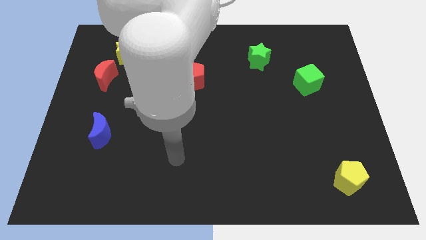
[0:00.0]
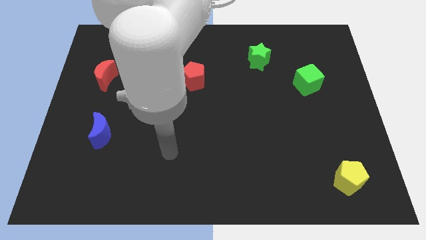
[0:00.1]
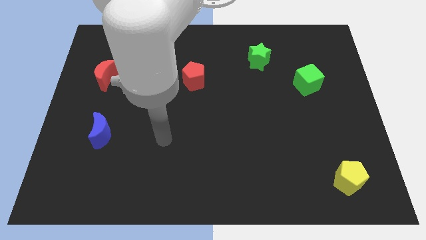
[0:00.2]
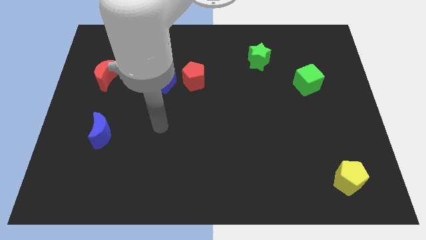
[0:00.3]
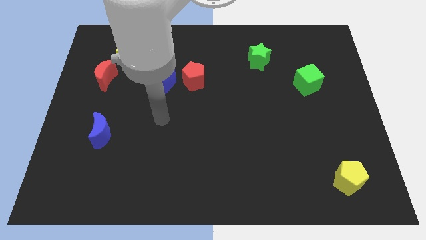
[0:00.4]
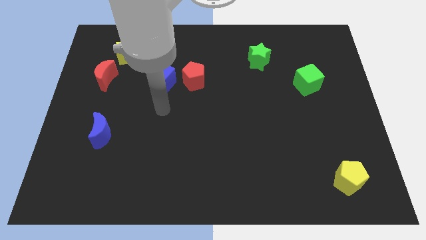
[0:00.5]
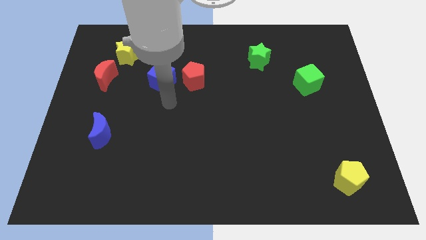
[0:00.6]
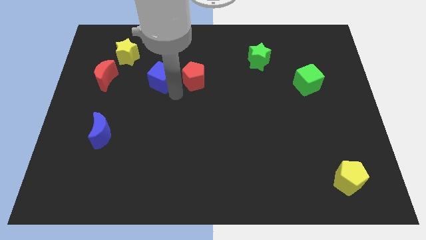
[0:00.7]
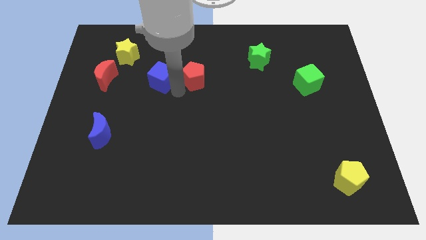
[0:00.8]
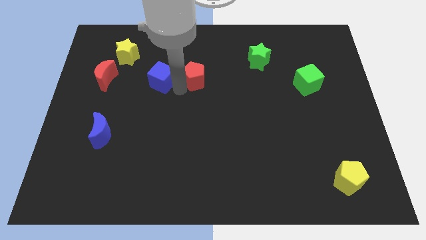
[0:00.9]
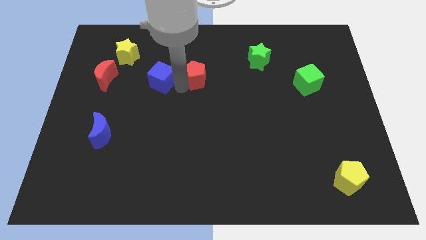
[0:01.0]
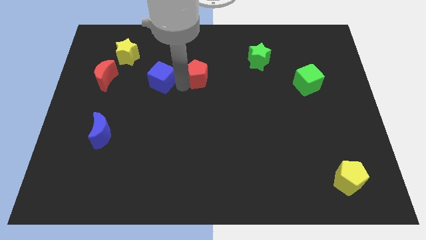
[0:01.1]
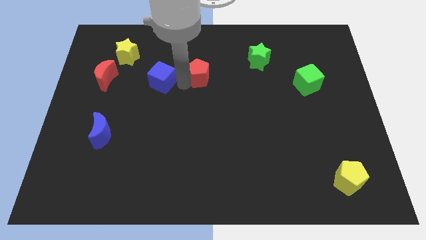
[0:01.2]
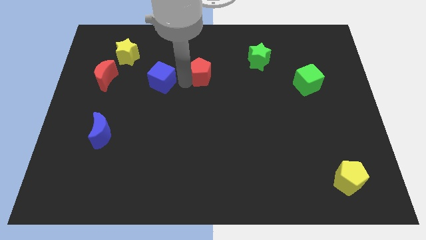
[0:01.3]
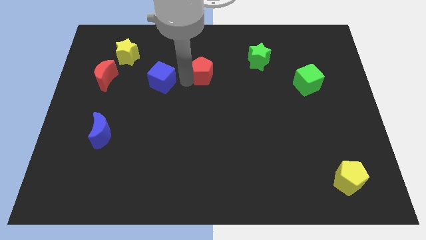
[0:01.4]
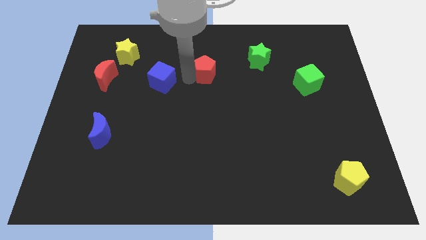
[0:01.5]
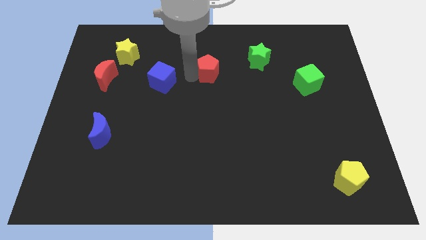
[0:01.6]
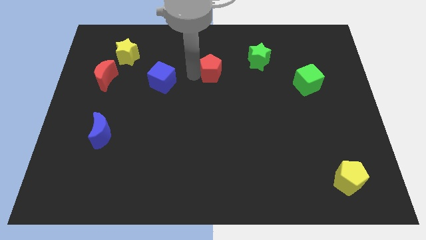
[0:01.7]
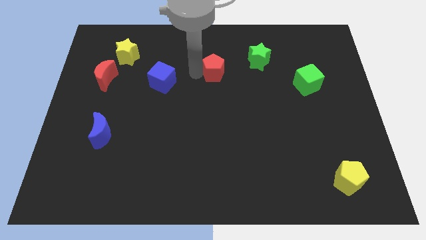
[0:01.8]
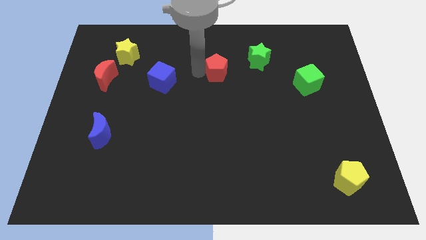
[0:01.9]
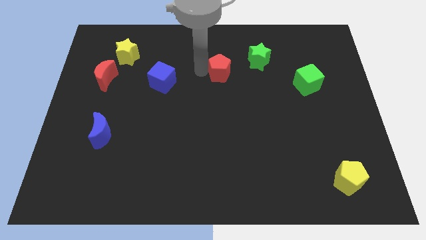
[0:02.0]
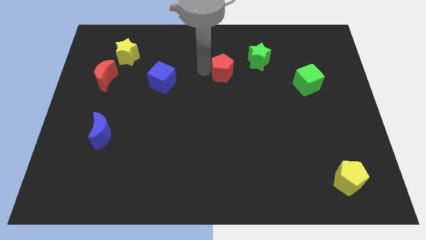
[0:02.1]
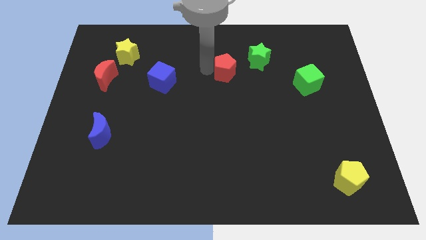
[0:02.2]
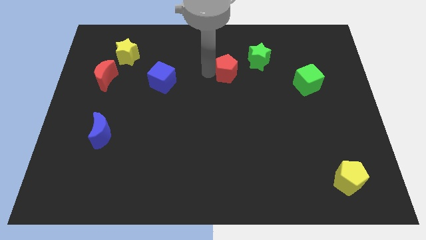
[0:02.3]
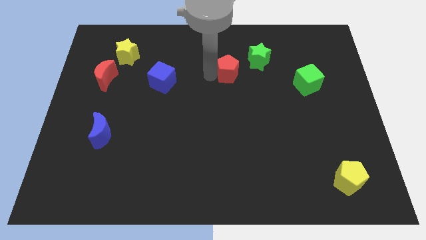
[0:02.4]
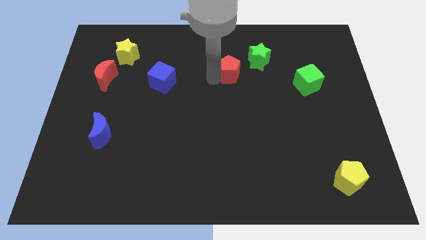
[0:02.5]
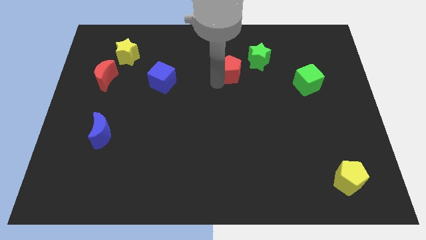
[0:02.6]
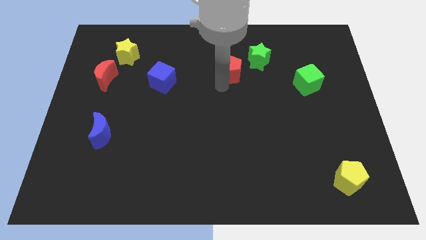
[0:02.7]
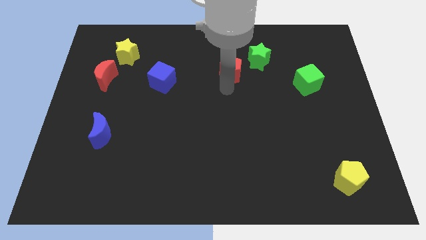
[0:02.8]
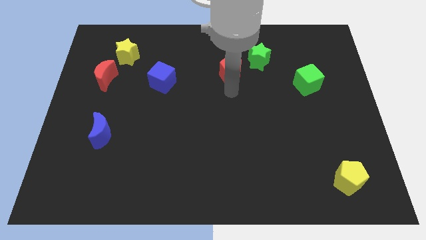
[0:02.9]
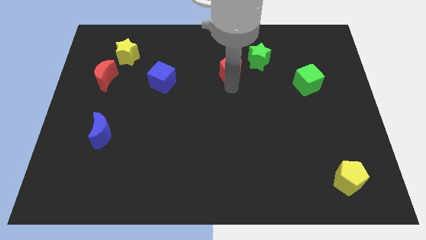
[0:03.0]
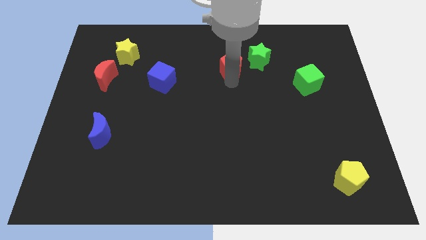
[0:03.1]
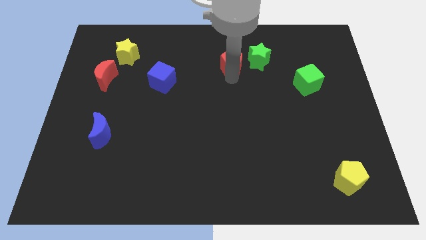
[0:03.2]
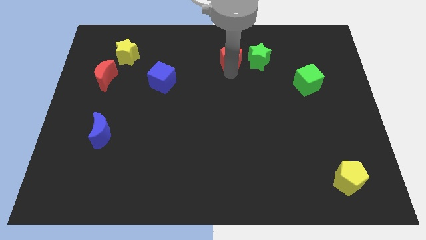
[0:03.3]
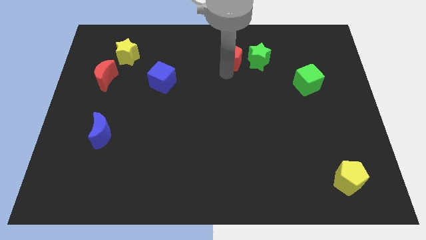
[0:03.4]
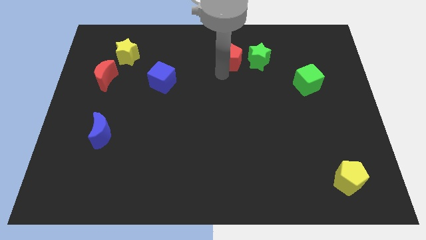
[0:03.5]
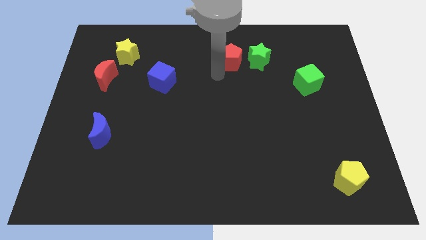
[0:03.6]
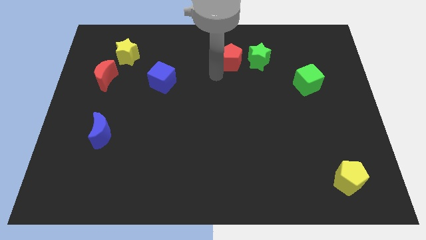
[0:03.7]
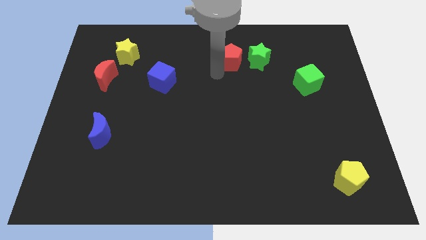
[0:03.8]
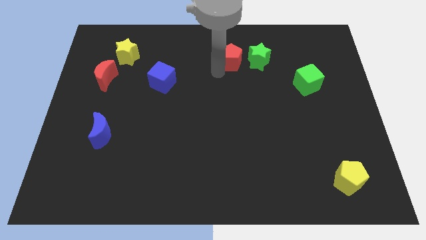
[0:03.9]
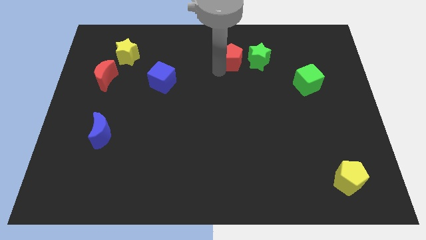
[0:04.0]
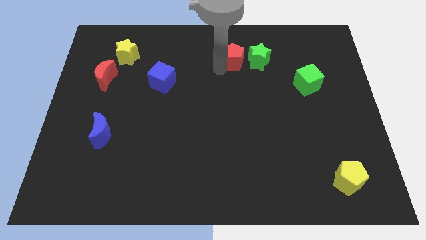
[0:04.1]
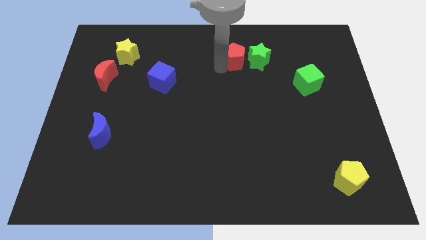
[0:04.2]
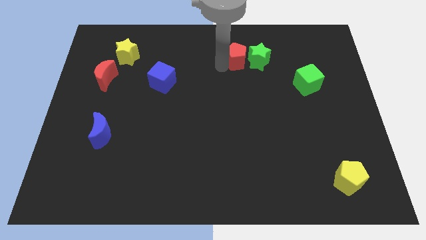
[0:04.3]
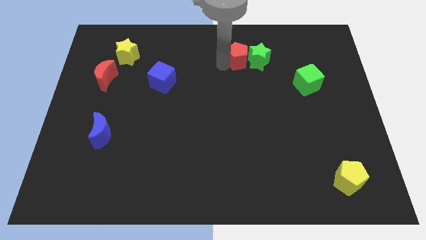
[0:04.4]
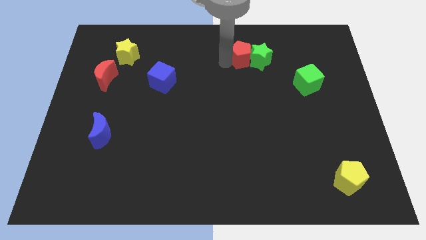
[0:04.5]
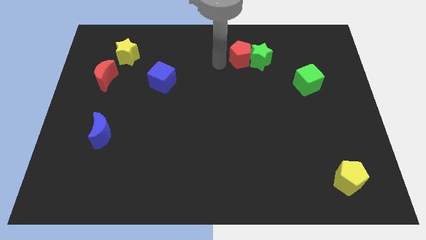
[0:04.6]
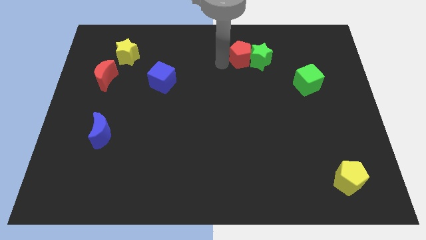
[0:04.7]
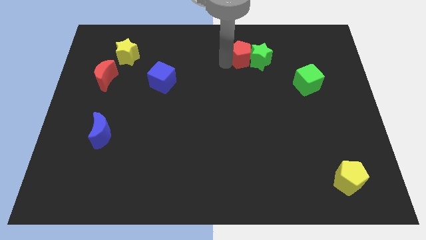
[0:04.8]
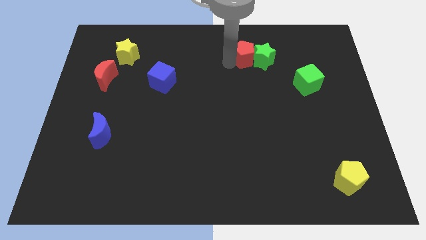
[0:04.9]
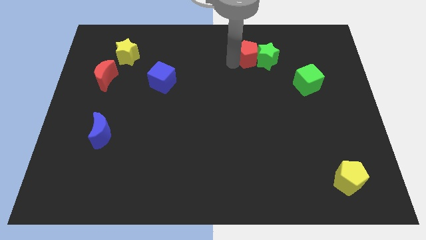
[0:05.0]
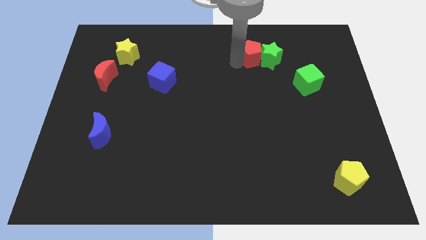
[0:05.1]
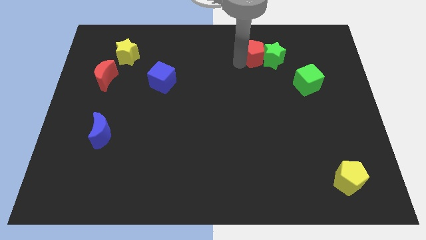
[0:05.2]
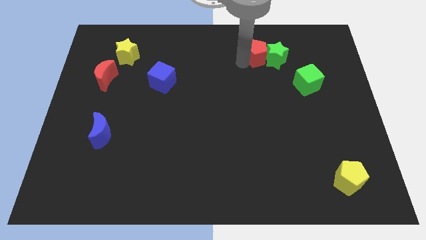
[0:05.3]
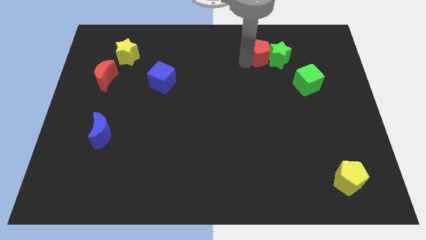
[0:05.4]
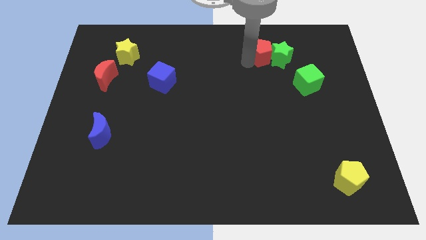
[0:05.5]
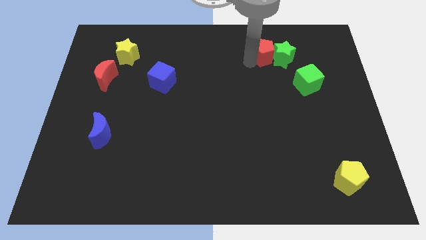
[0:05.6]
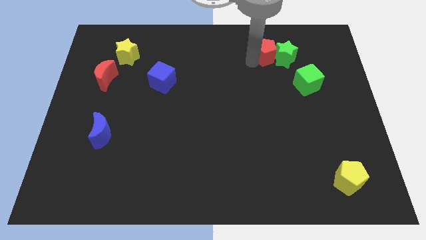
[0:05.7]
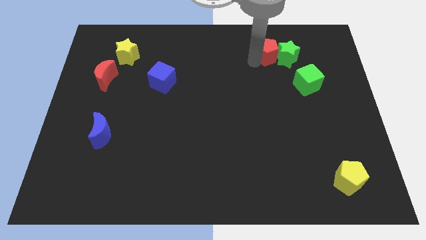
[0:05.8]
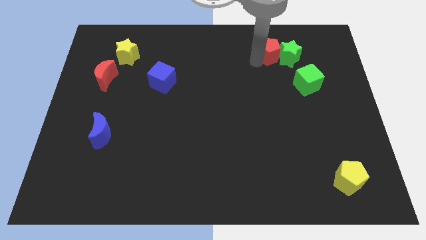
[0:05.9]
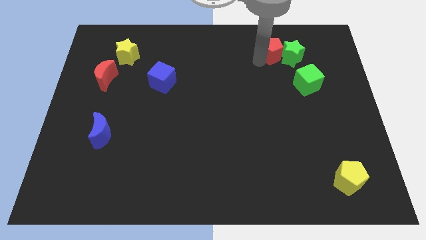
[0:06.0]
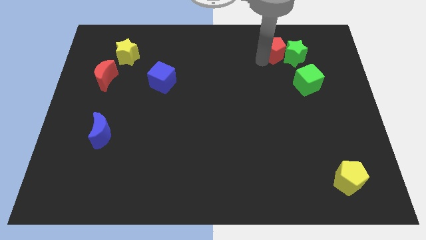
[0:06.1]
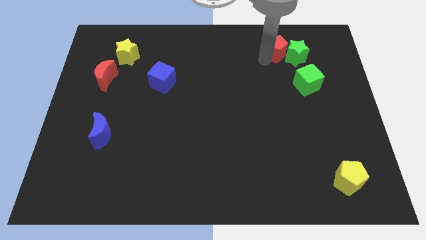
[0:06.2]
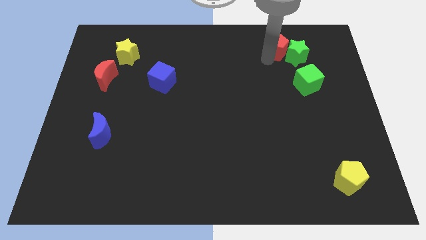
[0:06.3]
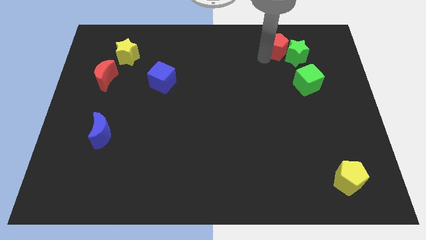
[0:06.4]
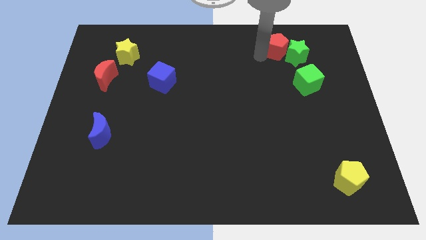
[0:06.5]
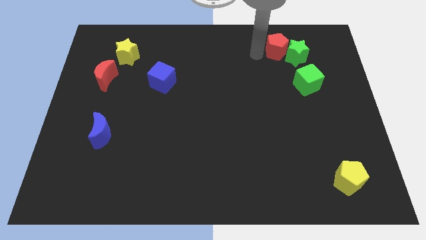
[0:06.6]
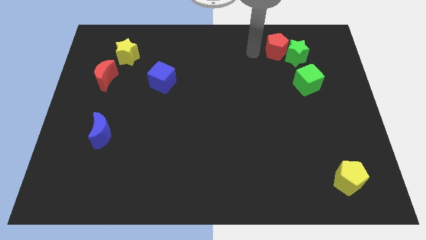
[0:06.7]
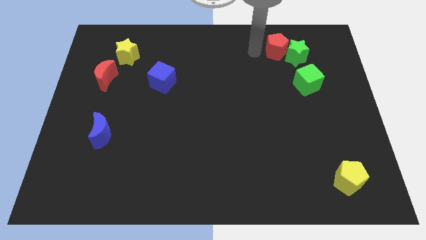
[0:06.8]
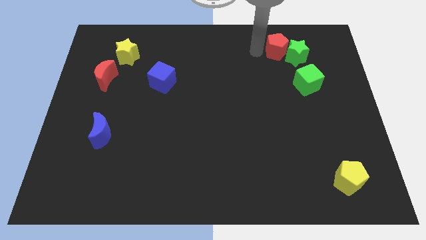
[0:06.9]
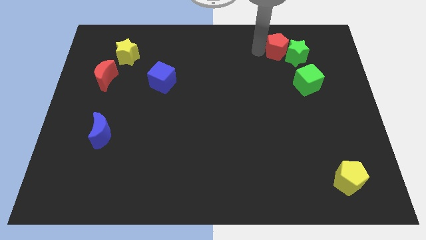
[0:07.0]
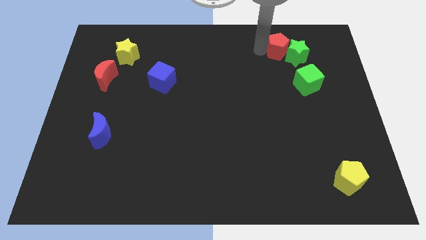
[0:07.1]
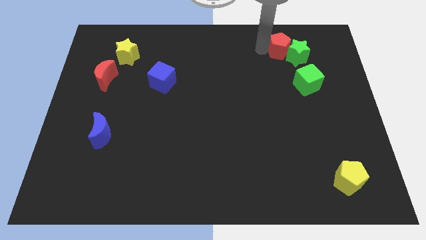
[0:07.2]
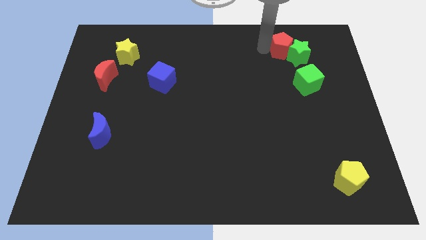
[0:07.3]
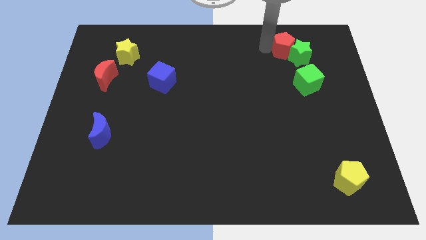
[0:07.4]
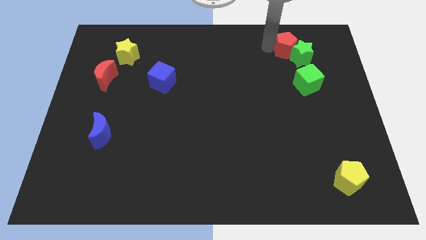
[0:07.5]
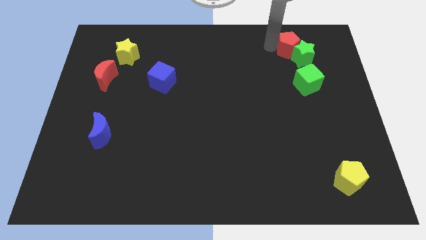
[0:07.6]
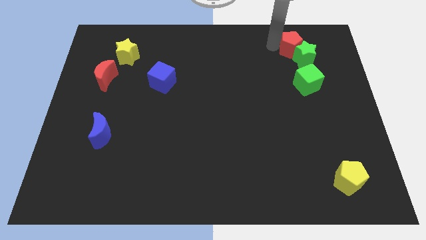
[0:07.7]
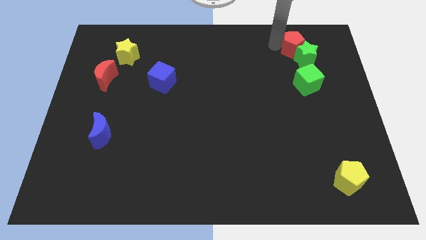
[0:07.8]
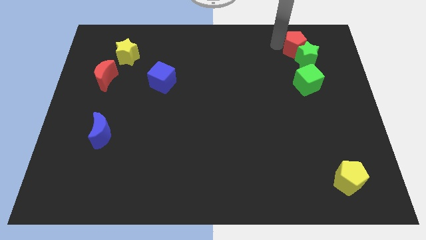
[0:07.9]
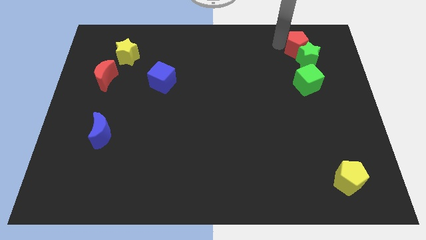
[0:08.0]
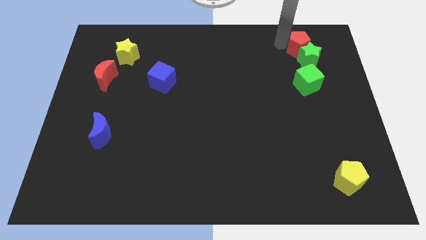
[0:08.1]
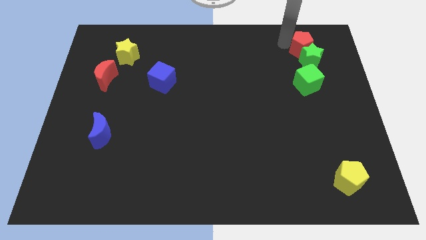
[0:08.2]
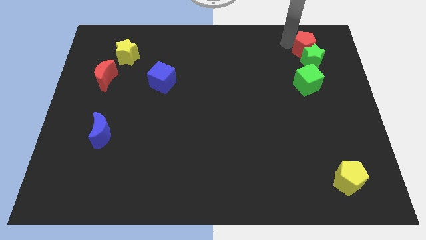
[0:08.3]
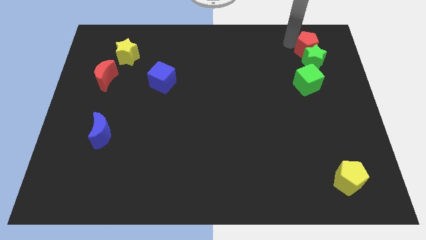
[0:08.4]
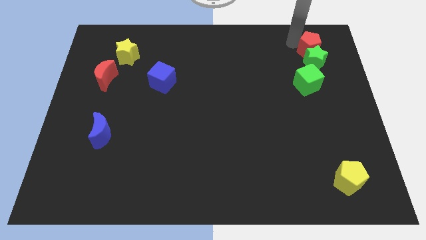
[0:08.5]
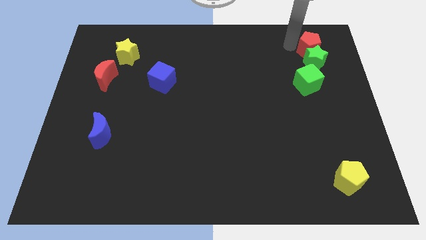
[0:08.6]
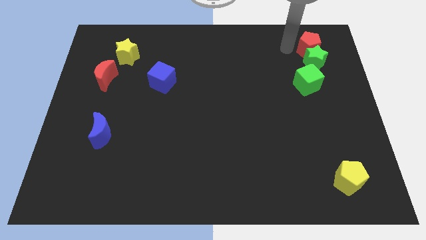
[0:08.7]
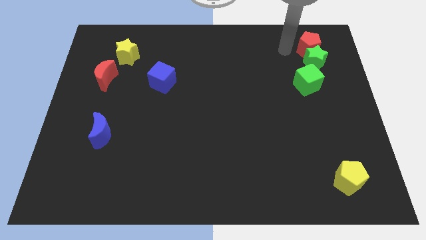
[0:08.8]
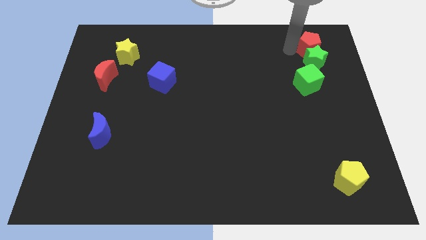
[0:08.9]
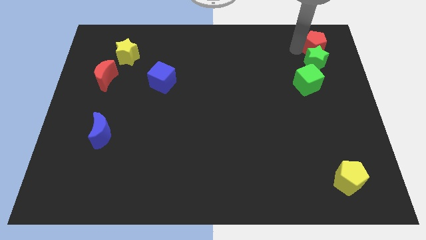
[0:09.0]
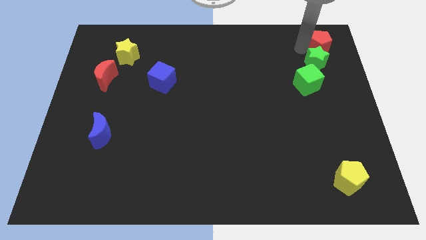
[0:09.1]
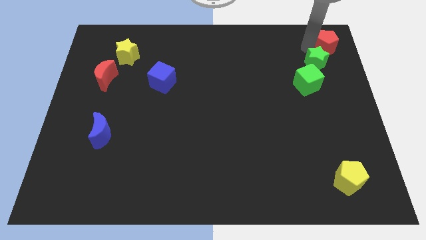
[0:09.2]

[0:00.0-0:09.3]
put the red pentagon to the top right of the board
